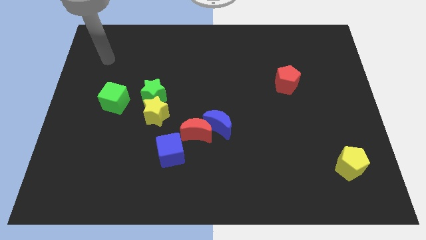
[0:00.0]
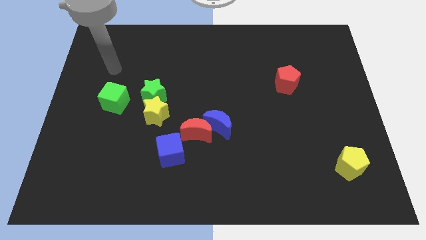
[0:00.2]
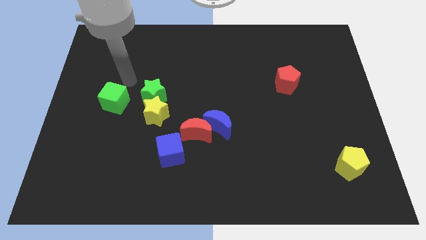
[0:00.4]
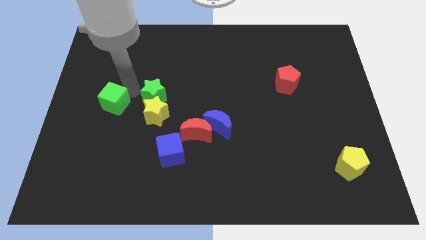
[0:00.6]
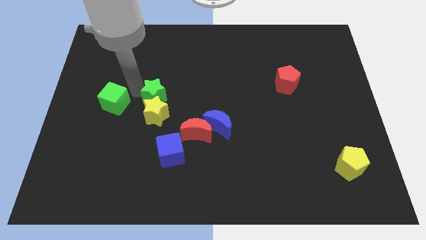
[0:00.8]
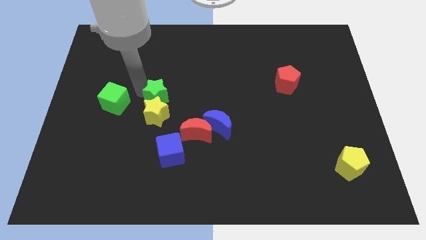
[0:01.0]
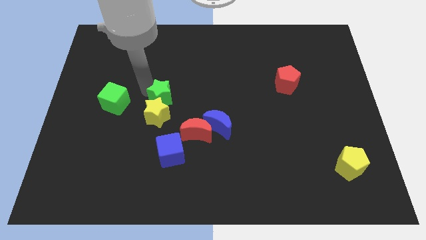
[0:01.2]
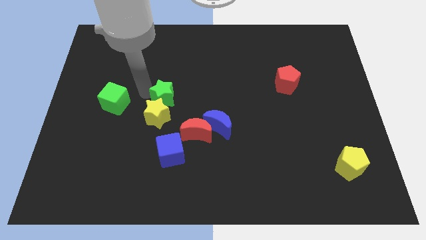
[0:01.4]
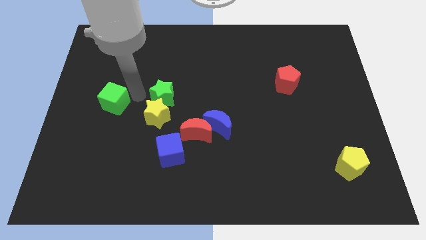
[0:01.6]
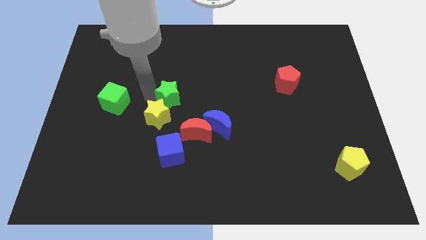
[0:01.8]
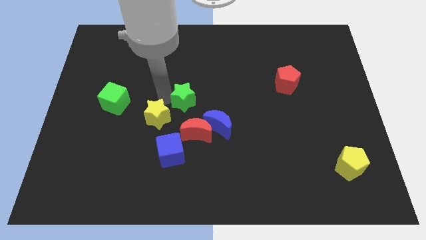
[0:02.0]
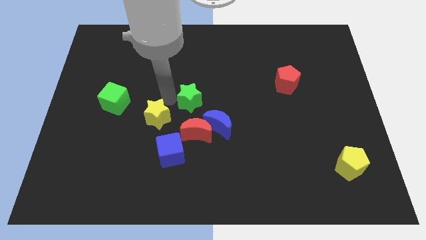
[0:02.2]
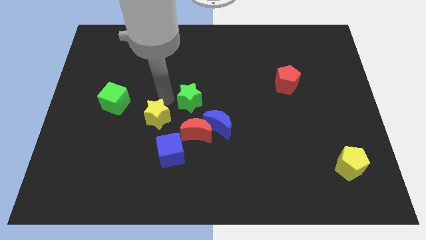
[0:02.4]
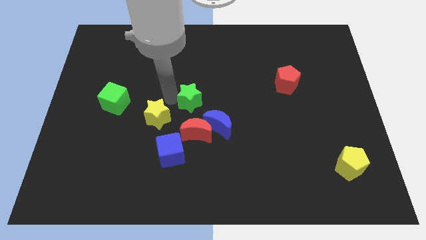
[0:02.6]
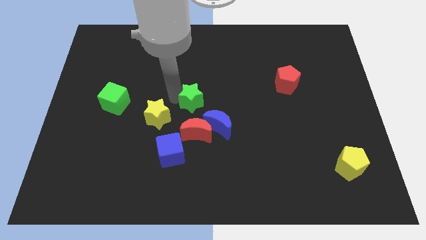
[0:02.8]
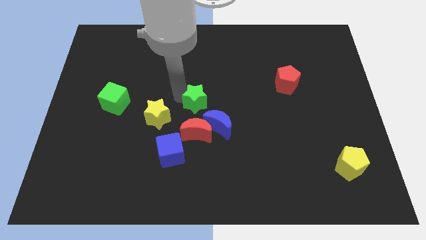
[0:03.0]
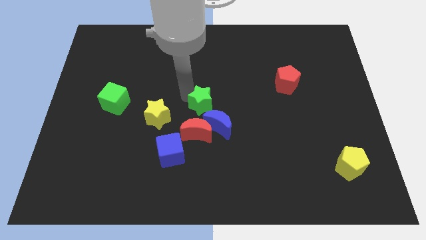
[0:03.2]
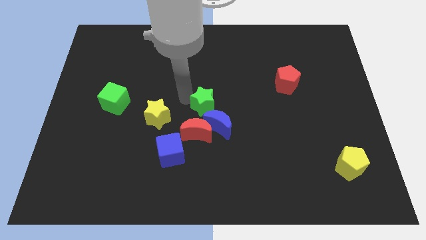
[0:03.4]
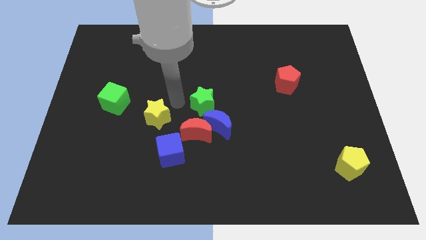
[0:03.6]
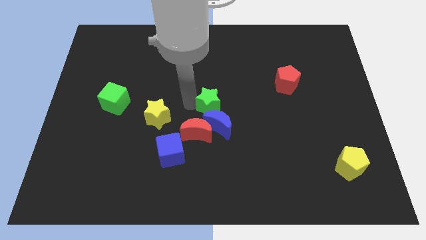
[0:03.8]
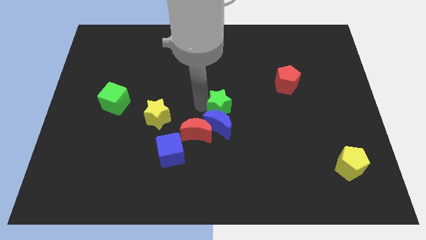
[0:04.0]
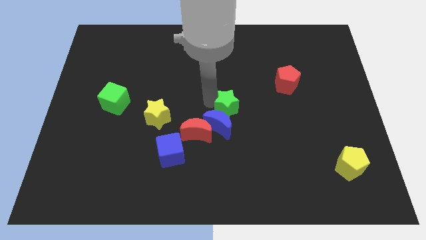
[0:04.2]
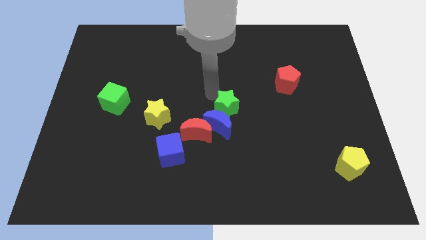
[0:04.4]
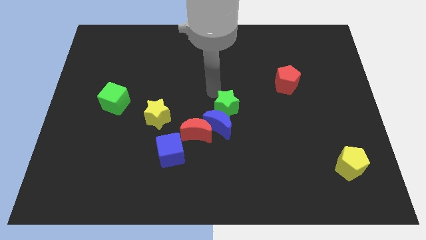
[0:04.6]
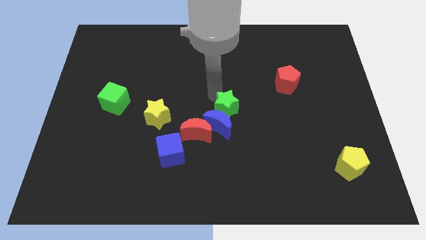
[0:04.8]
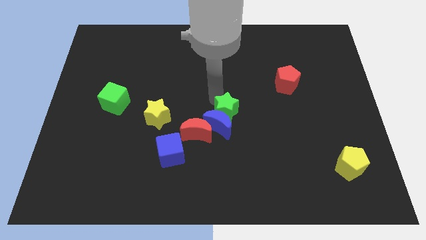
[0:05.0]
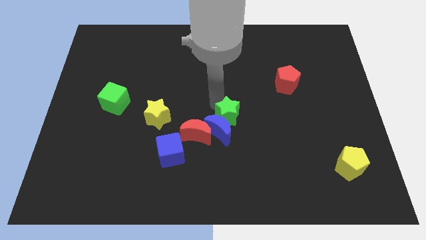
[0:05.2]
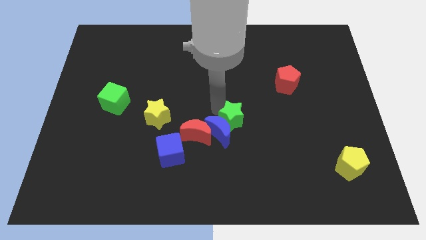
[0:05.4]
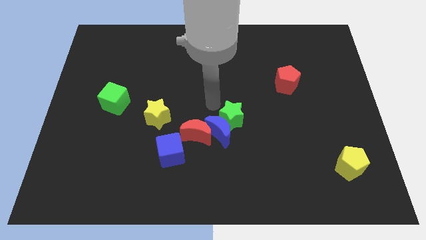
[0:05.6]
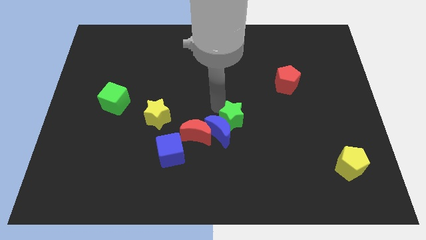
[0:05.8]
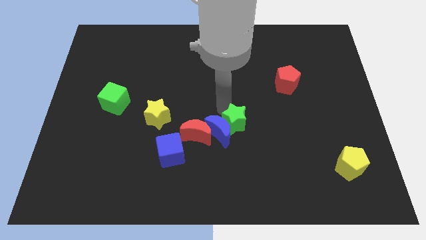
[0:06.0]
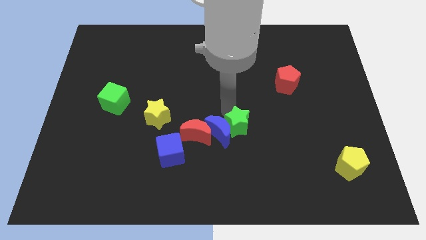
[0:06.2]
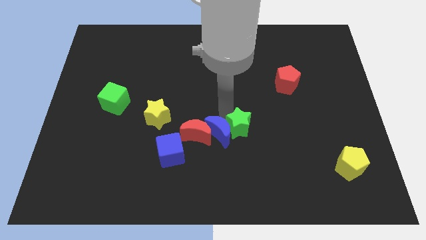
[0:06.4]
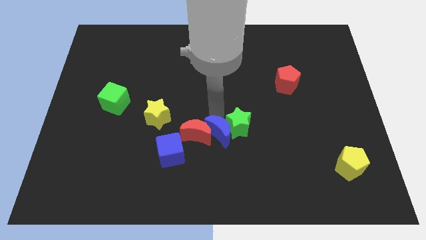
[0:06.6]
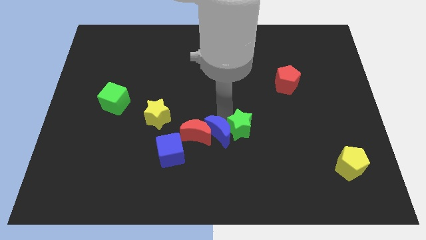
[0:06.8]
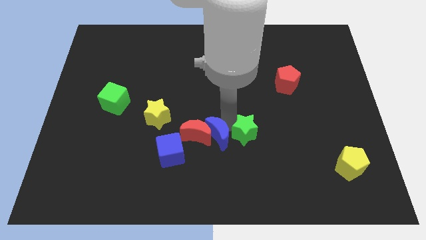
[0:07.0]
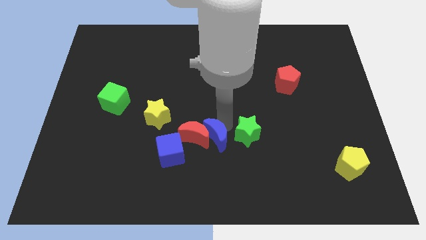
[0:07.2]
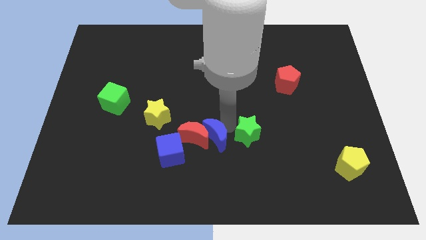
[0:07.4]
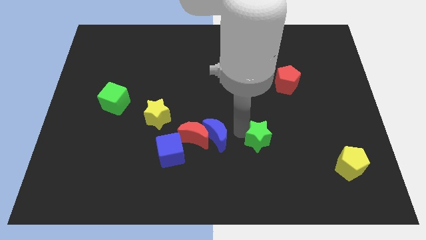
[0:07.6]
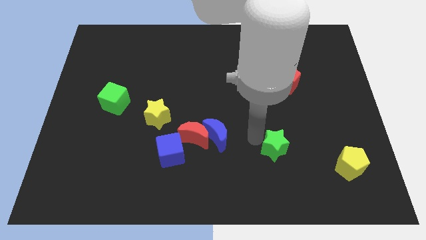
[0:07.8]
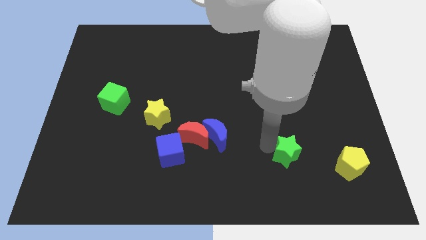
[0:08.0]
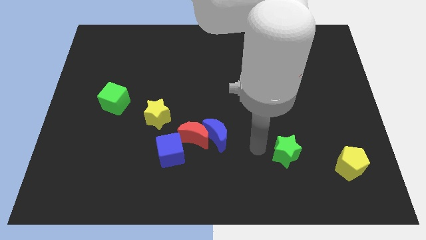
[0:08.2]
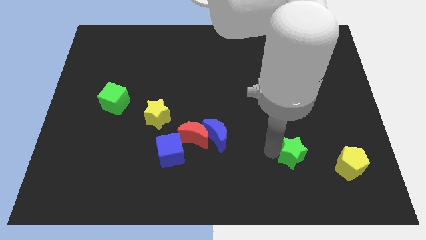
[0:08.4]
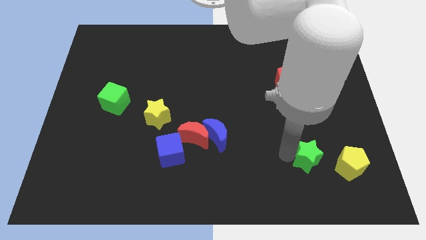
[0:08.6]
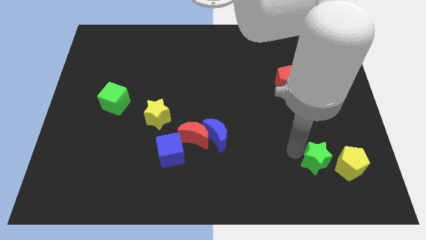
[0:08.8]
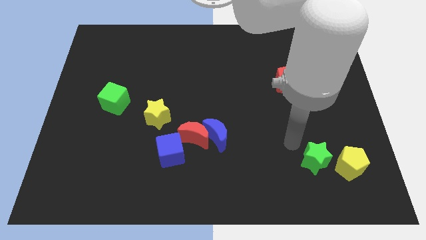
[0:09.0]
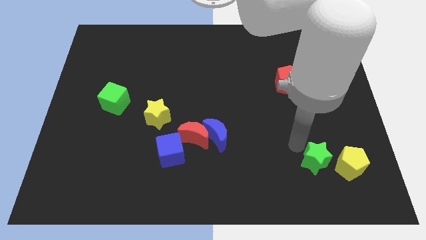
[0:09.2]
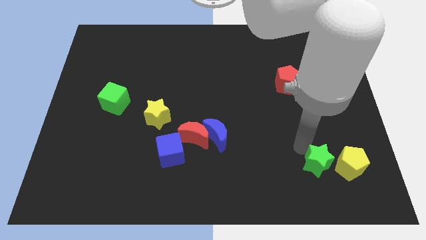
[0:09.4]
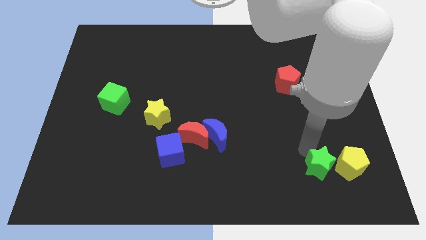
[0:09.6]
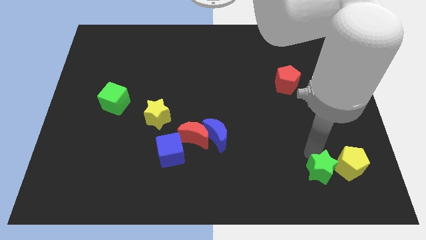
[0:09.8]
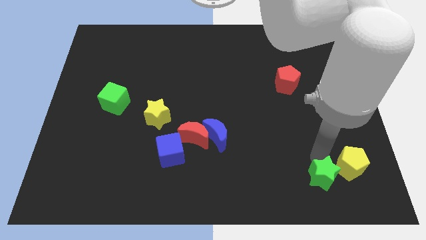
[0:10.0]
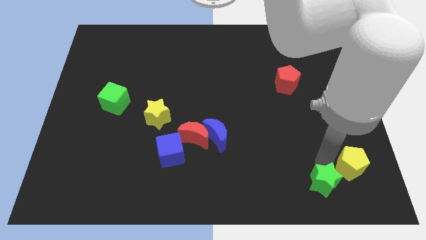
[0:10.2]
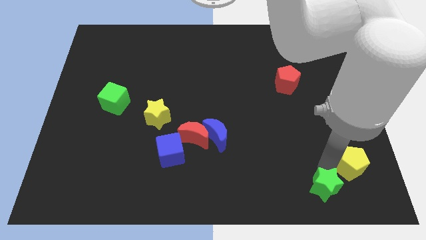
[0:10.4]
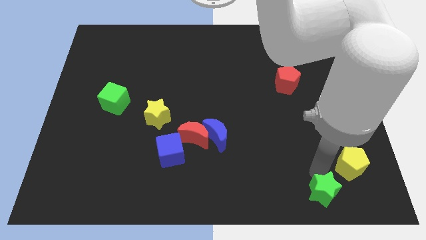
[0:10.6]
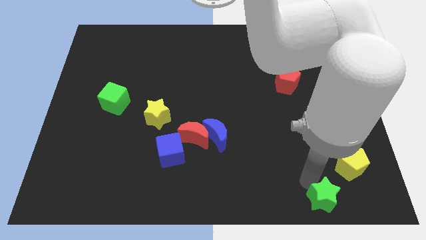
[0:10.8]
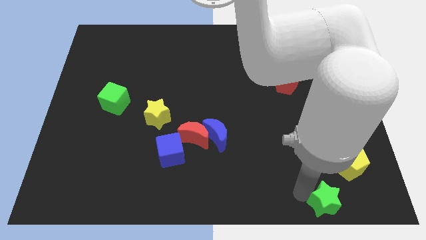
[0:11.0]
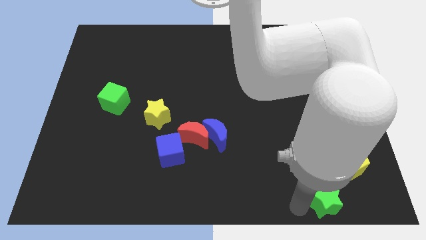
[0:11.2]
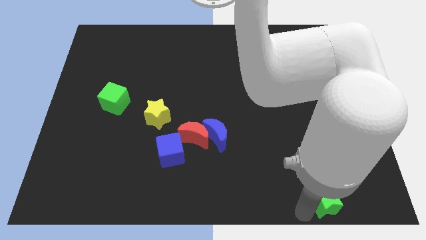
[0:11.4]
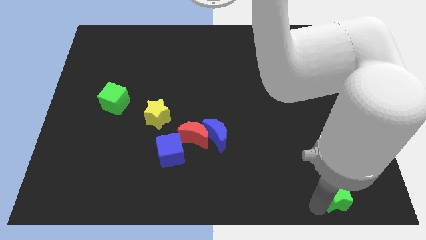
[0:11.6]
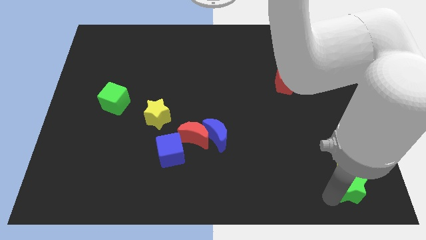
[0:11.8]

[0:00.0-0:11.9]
put the green star to the bottom right corner
